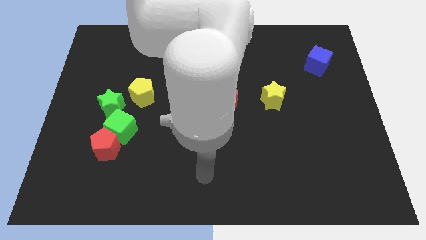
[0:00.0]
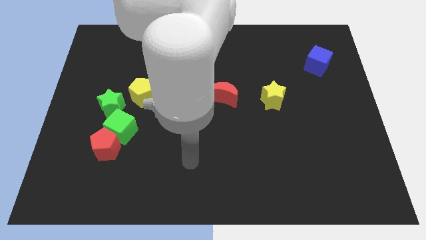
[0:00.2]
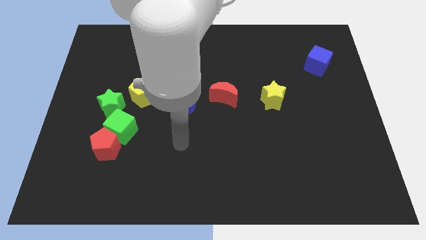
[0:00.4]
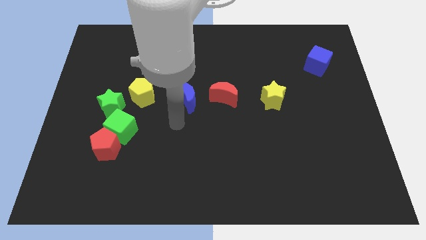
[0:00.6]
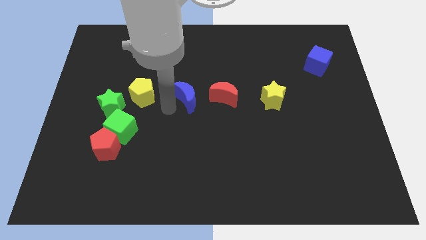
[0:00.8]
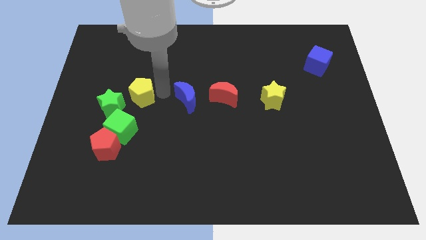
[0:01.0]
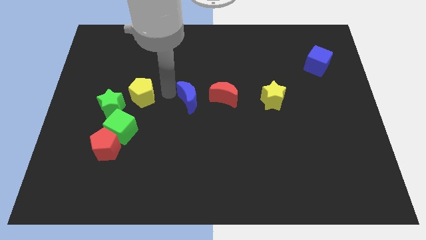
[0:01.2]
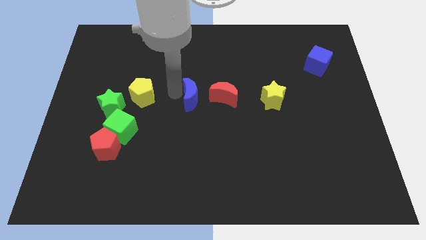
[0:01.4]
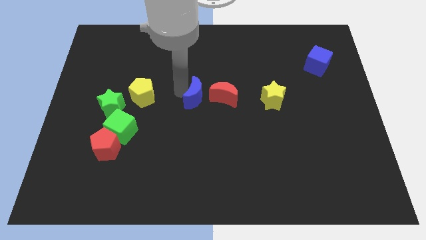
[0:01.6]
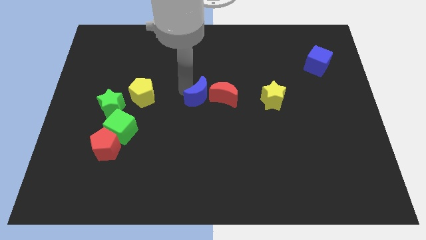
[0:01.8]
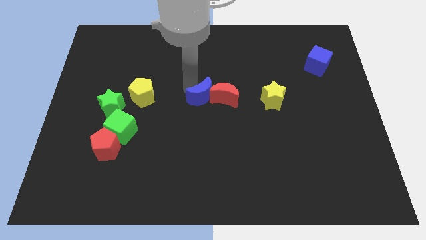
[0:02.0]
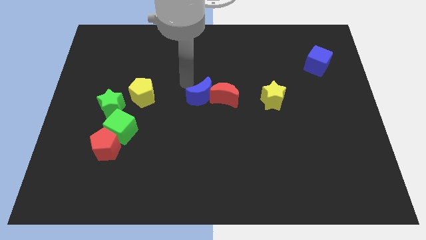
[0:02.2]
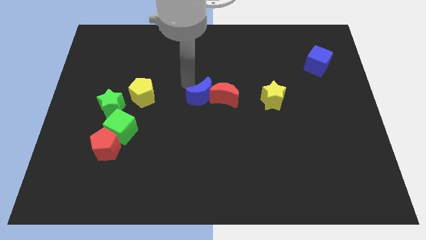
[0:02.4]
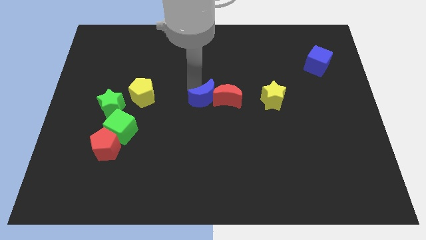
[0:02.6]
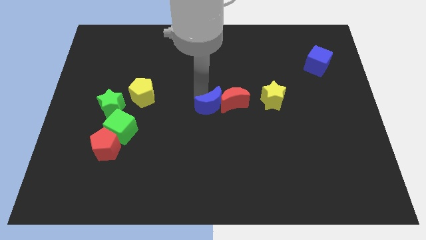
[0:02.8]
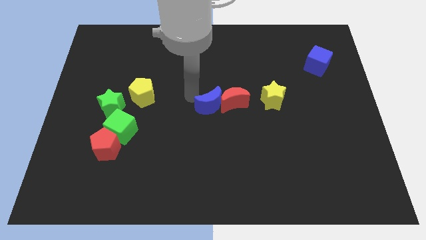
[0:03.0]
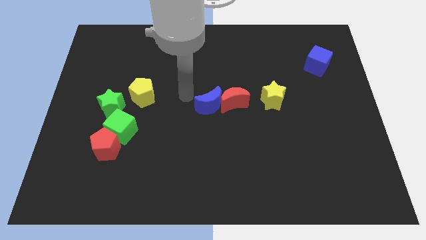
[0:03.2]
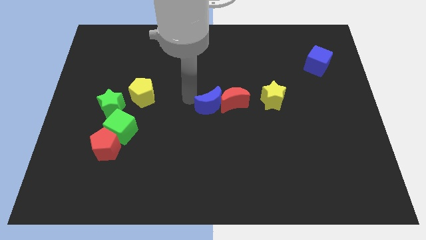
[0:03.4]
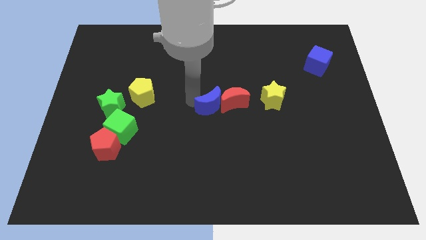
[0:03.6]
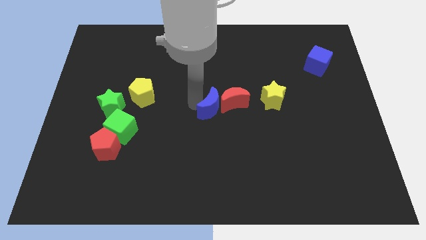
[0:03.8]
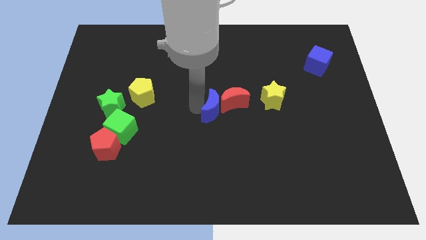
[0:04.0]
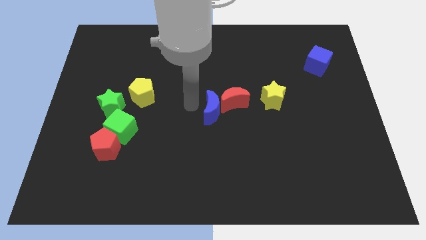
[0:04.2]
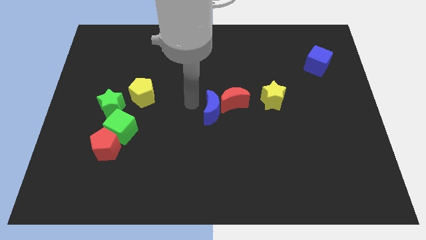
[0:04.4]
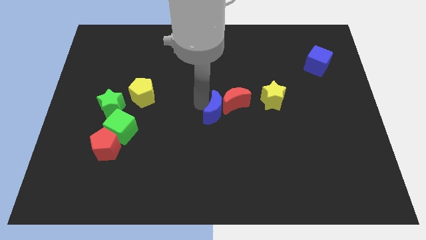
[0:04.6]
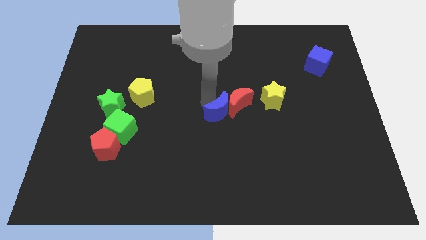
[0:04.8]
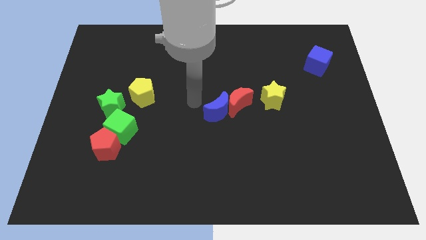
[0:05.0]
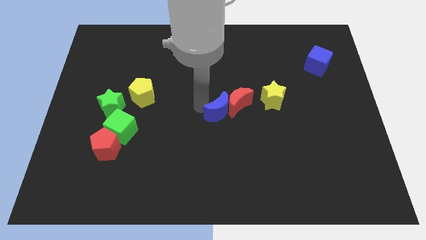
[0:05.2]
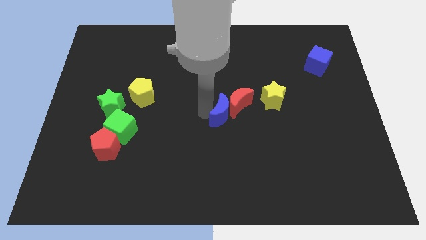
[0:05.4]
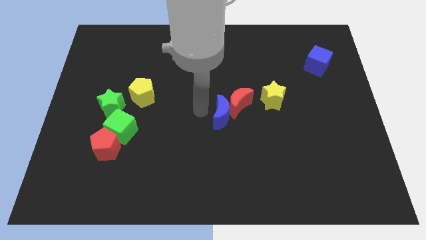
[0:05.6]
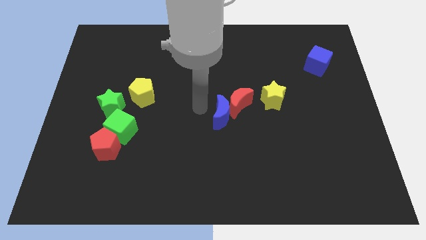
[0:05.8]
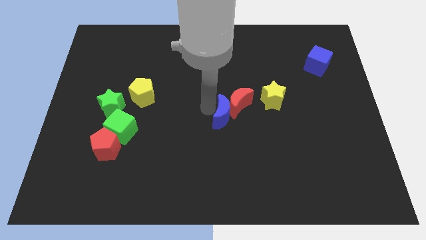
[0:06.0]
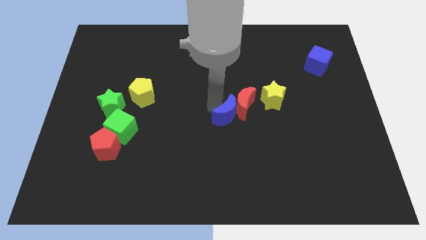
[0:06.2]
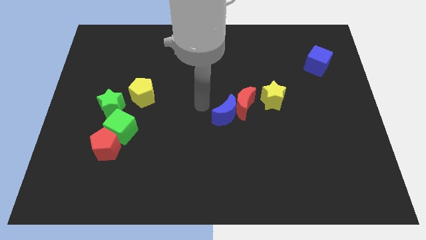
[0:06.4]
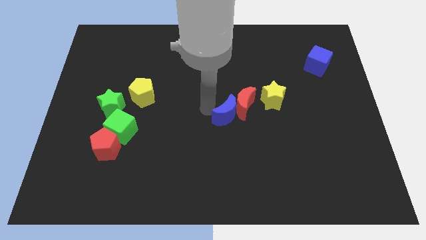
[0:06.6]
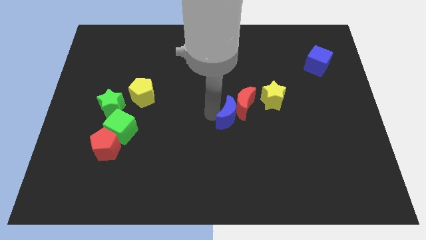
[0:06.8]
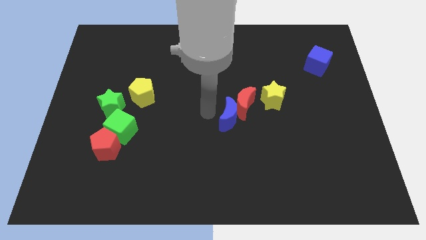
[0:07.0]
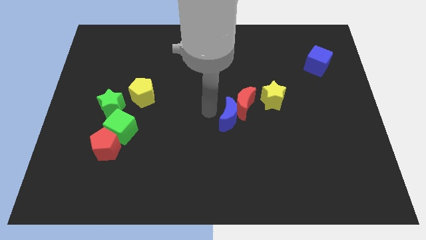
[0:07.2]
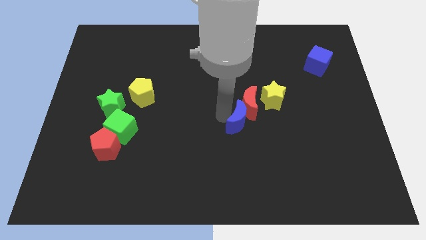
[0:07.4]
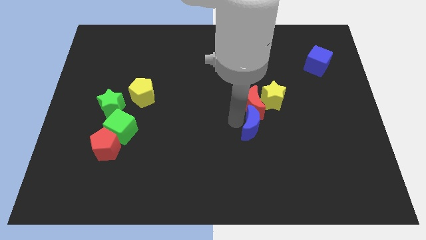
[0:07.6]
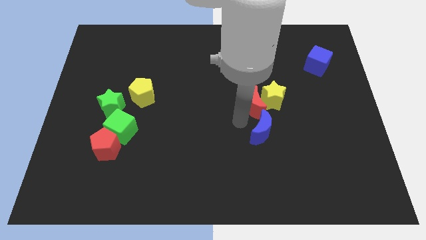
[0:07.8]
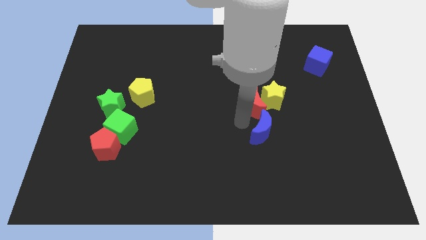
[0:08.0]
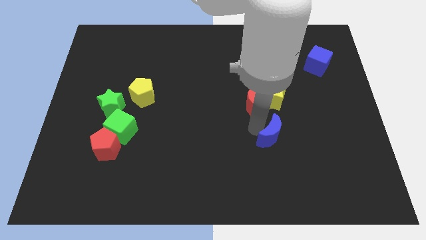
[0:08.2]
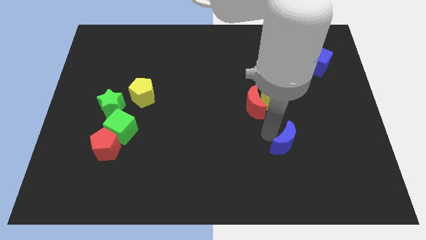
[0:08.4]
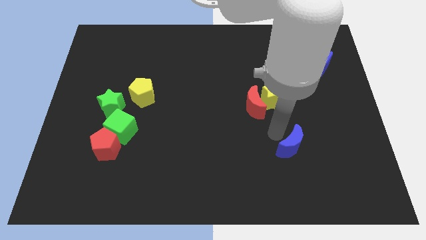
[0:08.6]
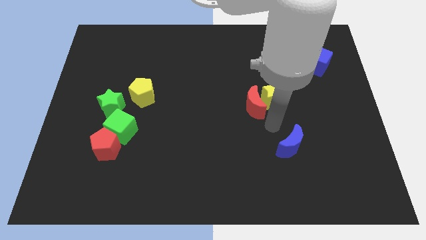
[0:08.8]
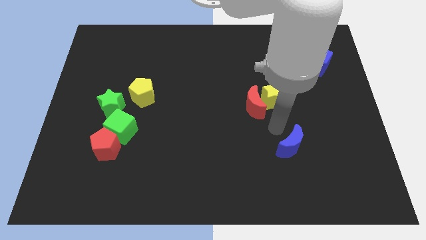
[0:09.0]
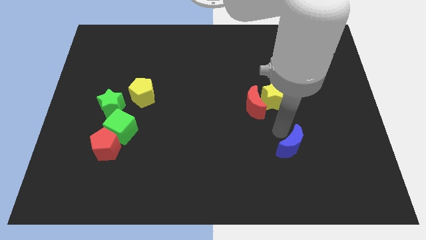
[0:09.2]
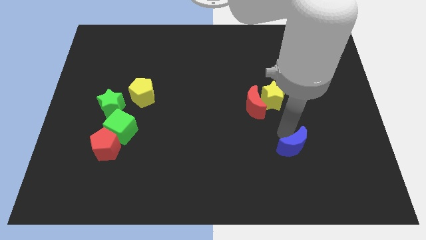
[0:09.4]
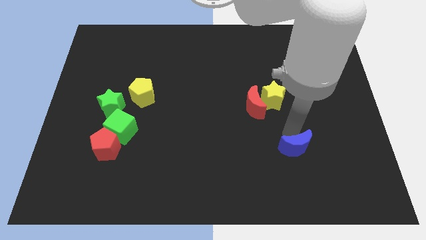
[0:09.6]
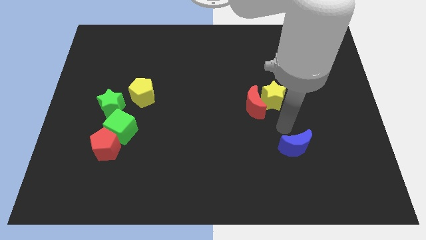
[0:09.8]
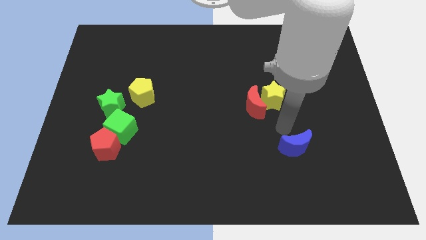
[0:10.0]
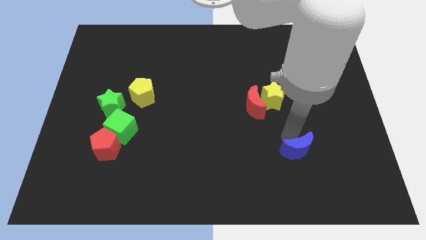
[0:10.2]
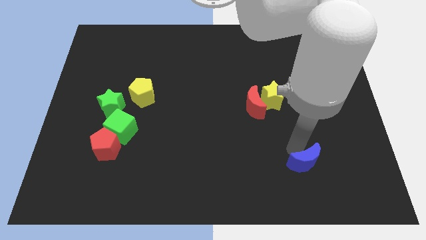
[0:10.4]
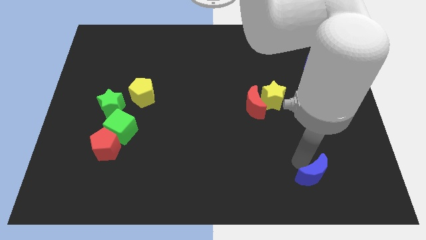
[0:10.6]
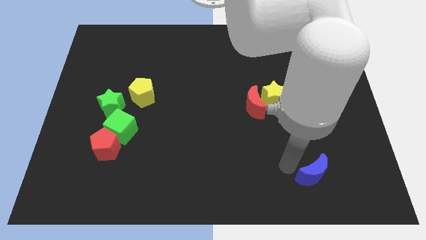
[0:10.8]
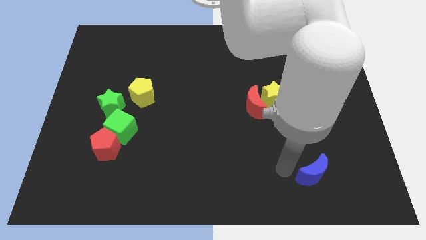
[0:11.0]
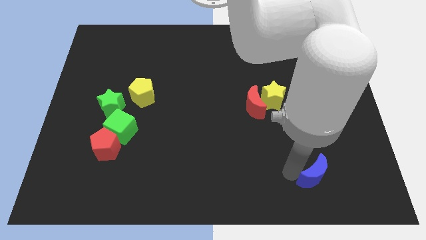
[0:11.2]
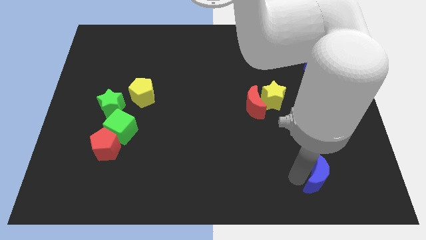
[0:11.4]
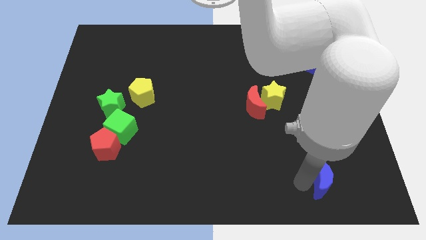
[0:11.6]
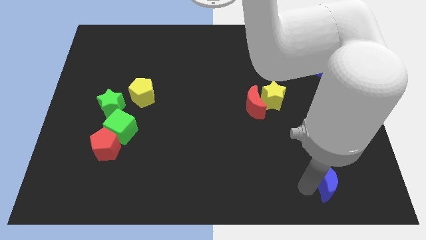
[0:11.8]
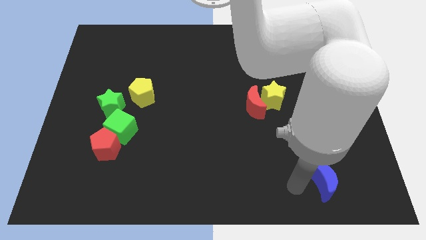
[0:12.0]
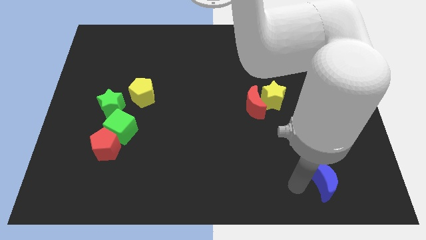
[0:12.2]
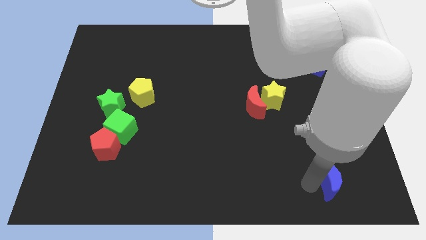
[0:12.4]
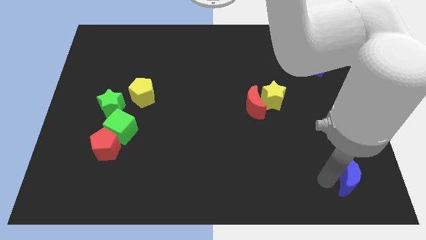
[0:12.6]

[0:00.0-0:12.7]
put the blue moon to the bottom right

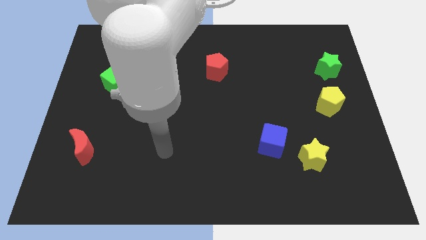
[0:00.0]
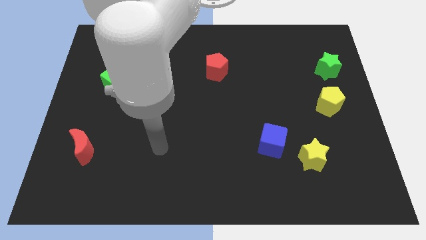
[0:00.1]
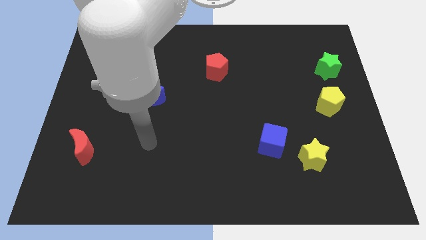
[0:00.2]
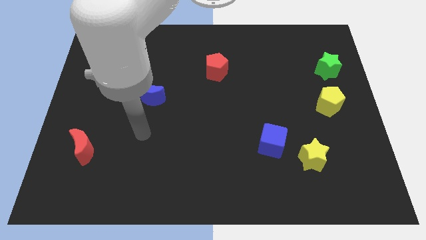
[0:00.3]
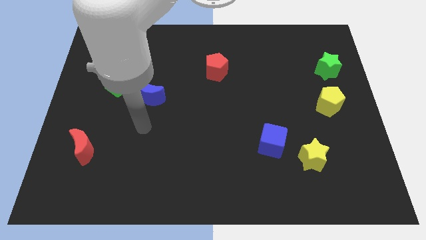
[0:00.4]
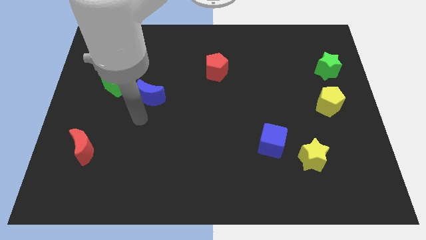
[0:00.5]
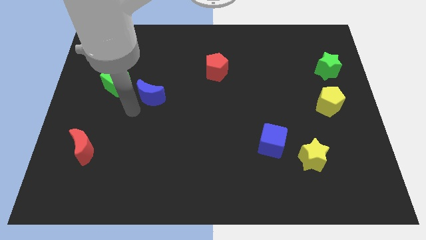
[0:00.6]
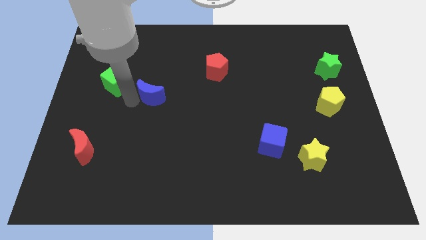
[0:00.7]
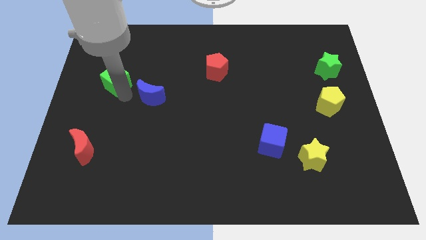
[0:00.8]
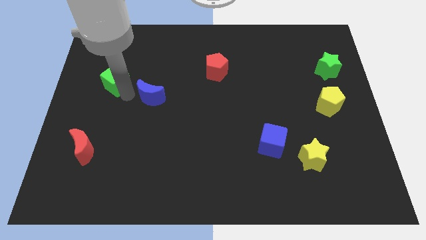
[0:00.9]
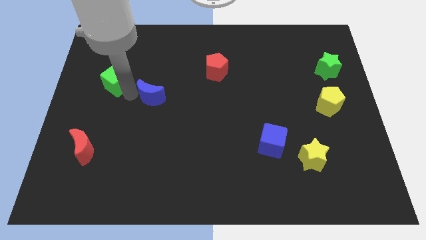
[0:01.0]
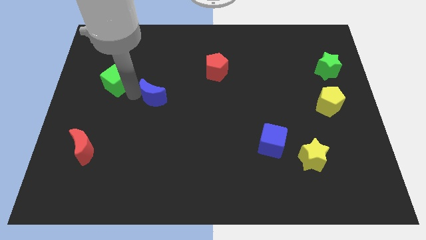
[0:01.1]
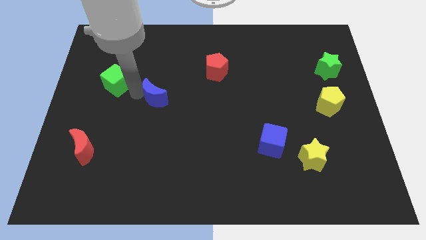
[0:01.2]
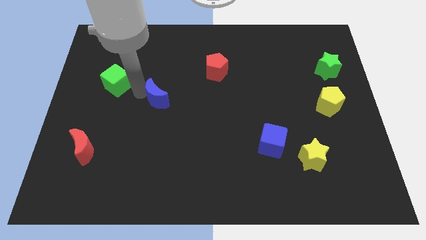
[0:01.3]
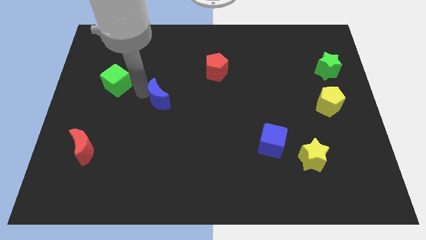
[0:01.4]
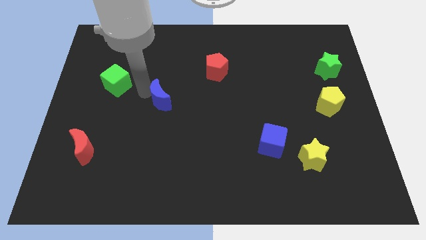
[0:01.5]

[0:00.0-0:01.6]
put the blue moon to the center
